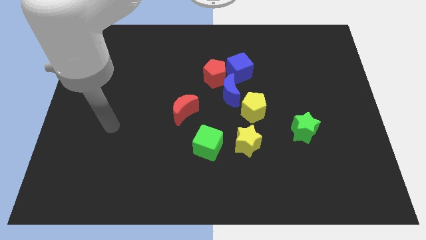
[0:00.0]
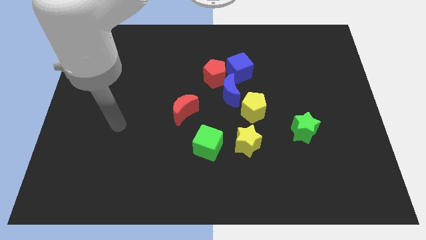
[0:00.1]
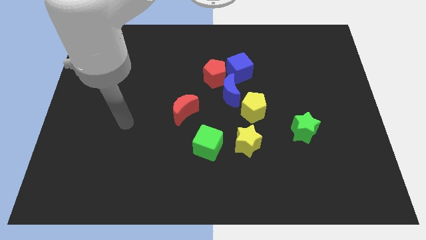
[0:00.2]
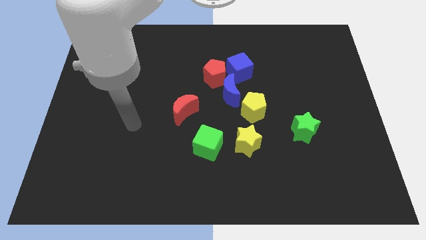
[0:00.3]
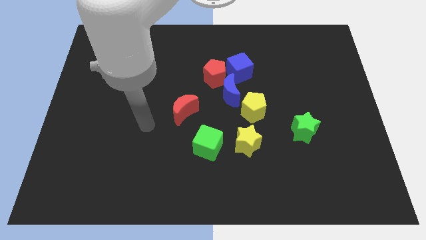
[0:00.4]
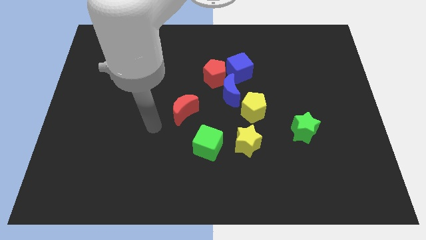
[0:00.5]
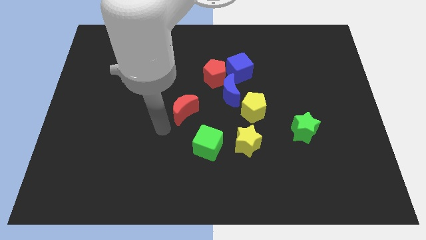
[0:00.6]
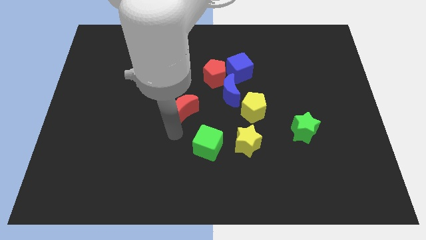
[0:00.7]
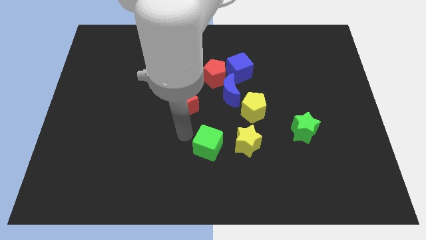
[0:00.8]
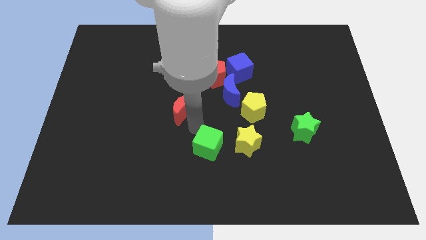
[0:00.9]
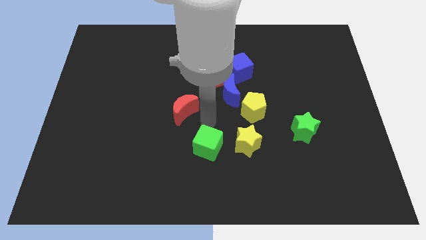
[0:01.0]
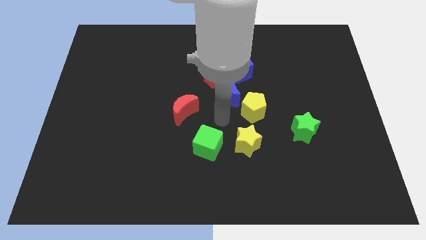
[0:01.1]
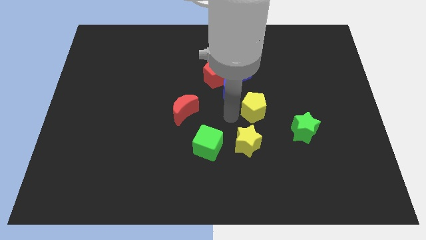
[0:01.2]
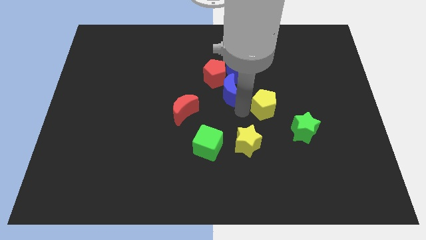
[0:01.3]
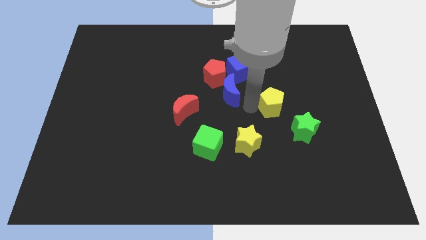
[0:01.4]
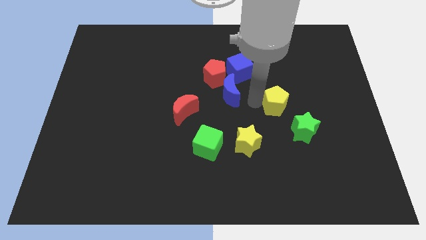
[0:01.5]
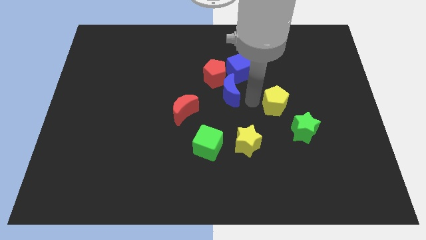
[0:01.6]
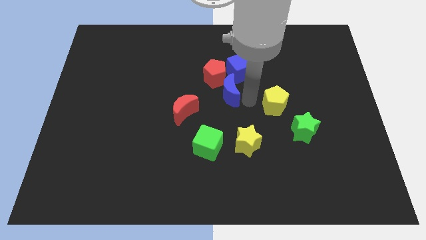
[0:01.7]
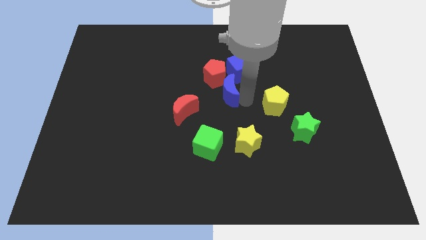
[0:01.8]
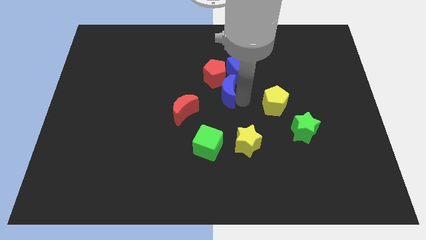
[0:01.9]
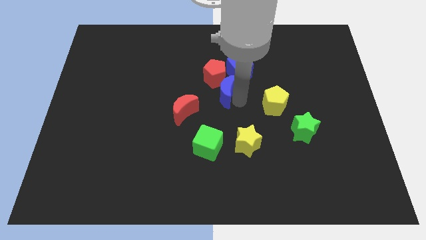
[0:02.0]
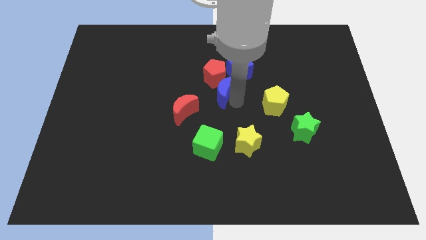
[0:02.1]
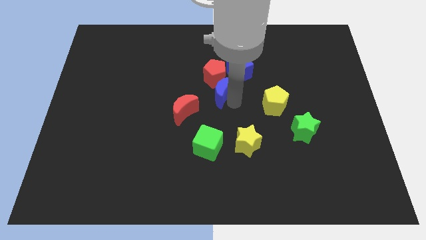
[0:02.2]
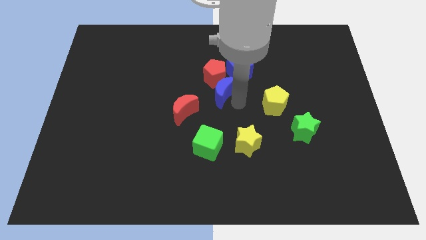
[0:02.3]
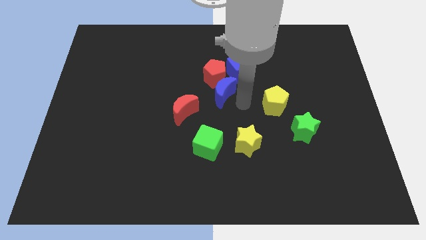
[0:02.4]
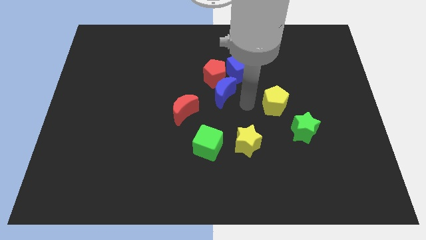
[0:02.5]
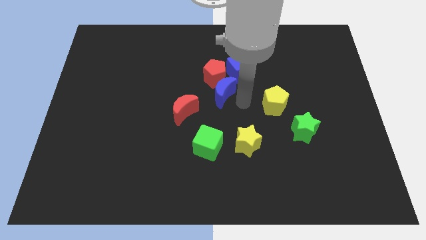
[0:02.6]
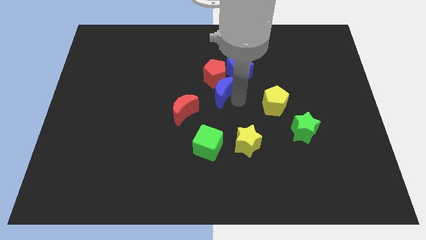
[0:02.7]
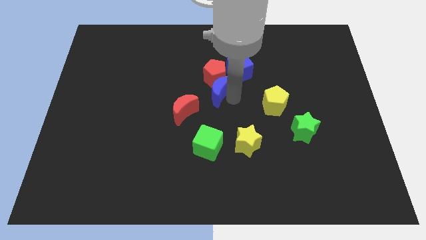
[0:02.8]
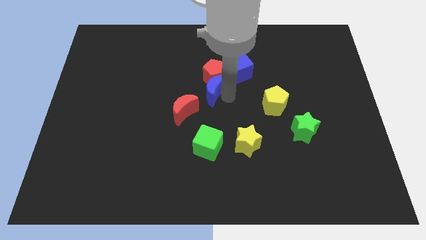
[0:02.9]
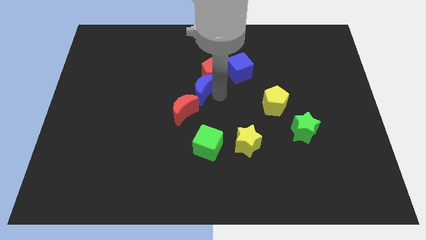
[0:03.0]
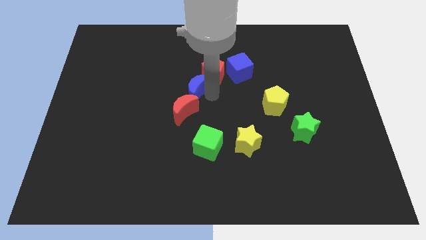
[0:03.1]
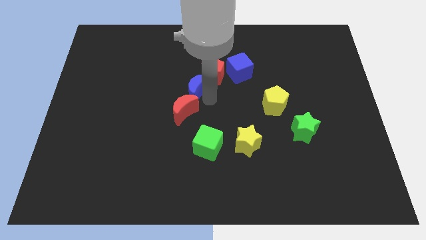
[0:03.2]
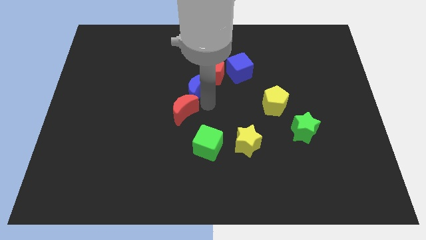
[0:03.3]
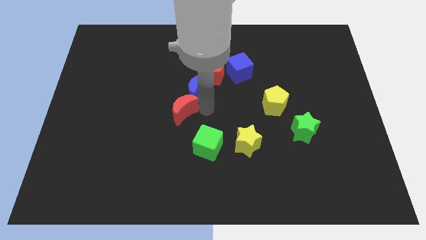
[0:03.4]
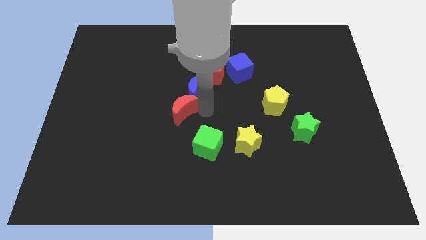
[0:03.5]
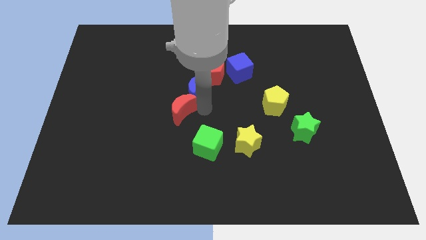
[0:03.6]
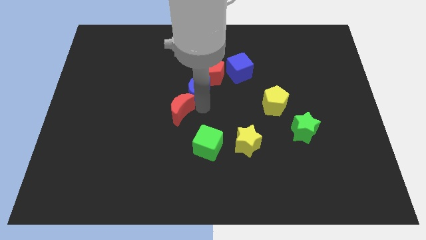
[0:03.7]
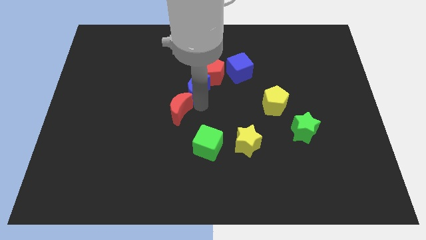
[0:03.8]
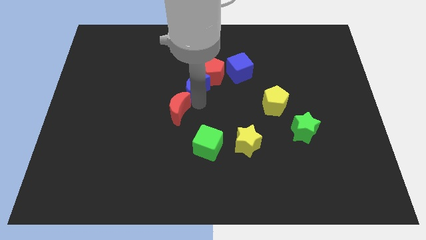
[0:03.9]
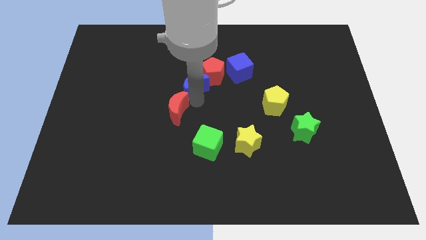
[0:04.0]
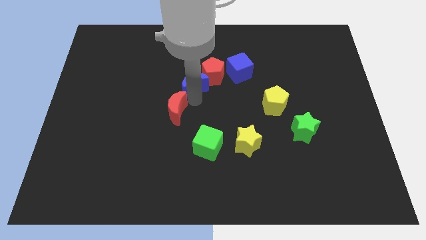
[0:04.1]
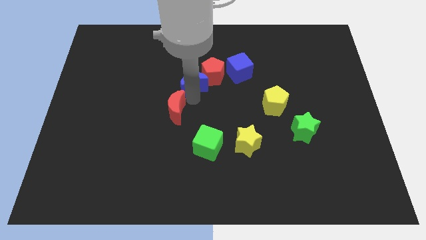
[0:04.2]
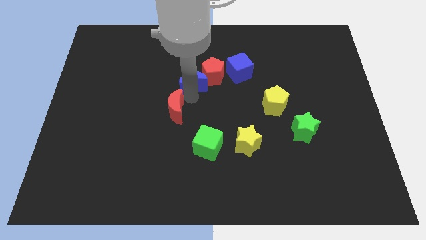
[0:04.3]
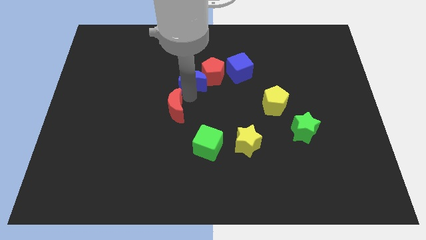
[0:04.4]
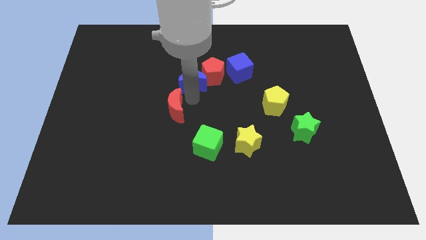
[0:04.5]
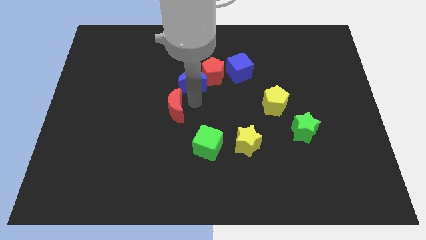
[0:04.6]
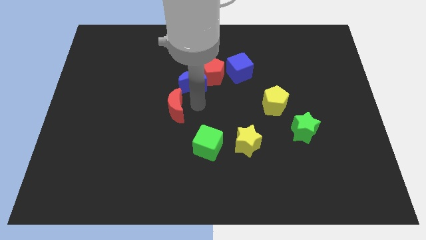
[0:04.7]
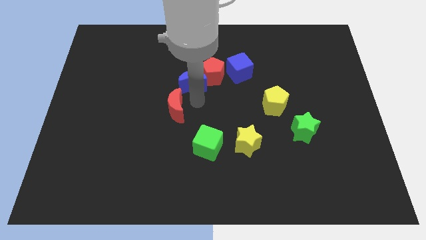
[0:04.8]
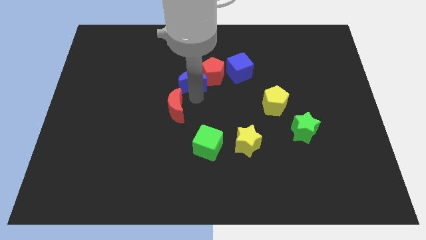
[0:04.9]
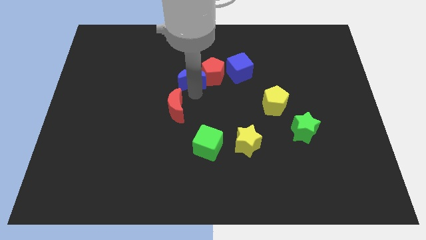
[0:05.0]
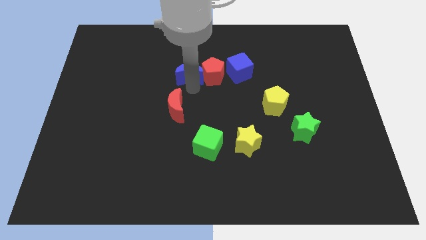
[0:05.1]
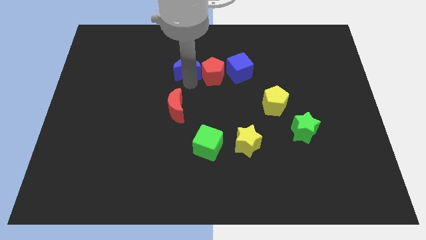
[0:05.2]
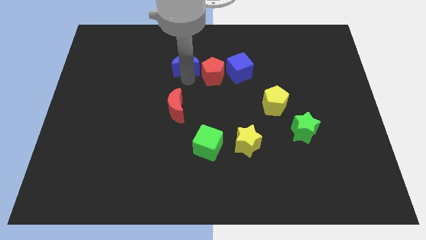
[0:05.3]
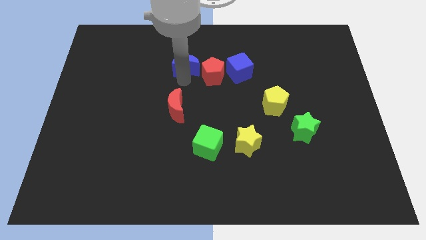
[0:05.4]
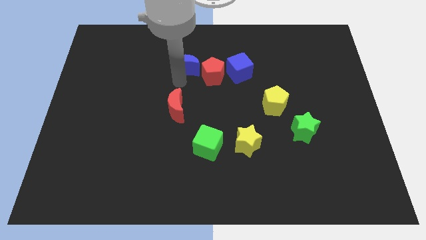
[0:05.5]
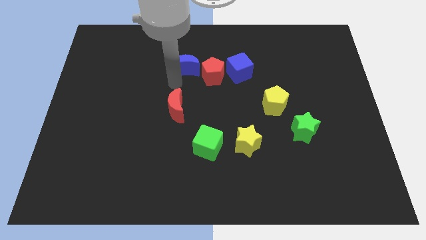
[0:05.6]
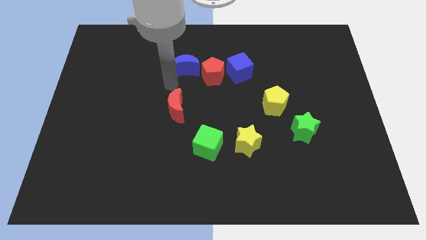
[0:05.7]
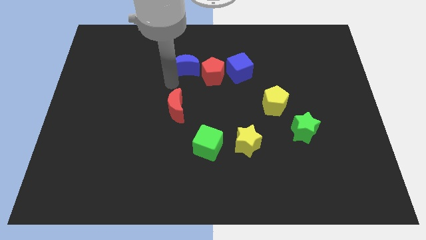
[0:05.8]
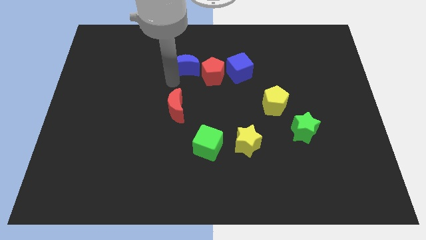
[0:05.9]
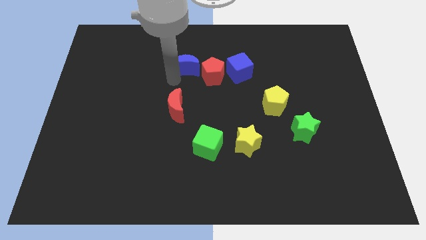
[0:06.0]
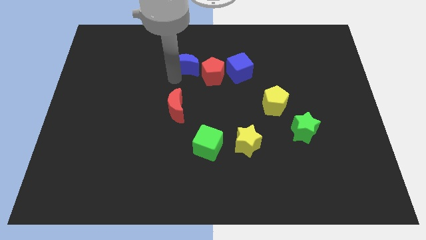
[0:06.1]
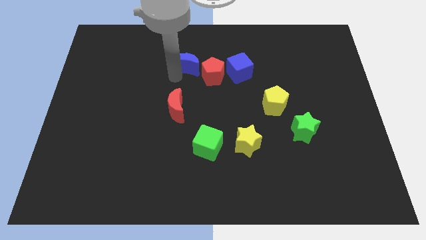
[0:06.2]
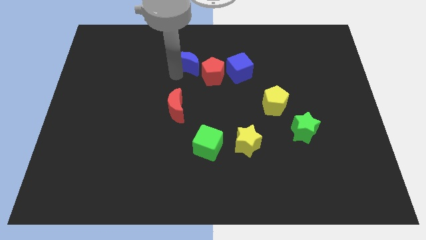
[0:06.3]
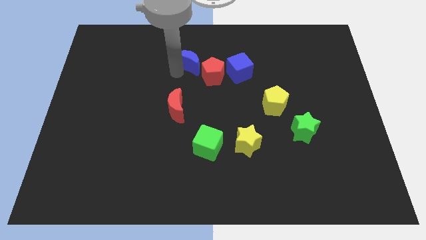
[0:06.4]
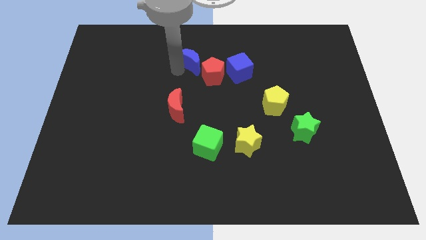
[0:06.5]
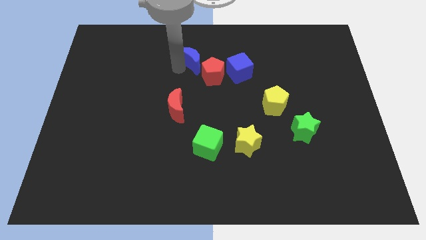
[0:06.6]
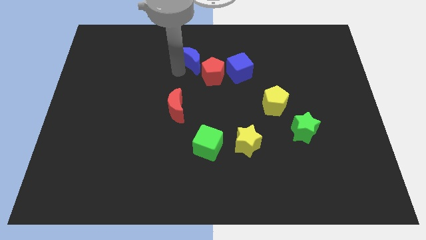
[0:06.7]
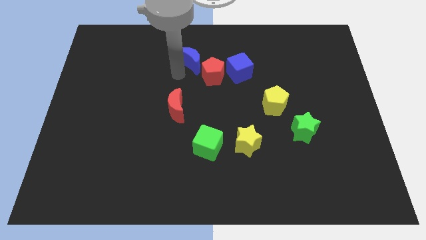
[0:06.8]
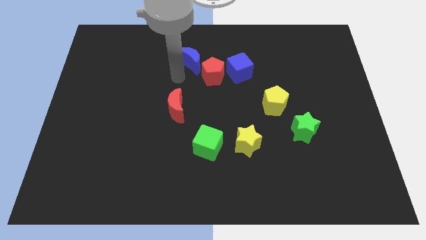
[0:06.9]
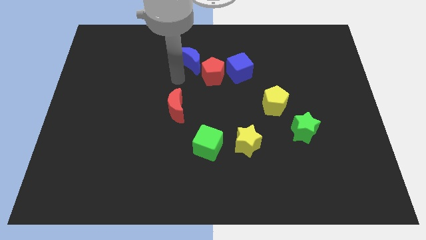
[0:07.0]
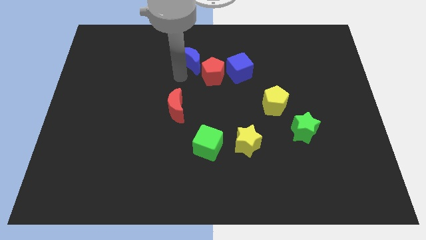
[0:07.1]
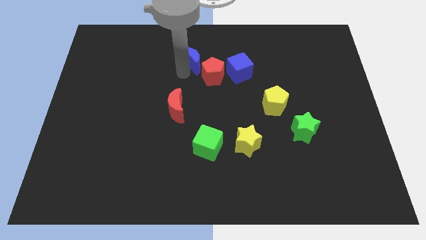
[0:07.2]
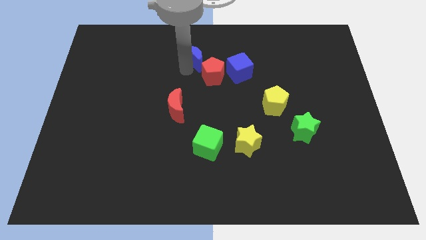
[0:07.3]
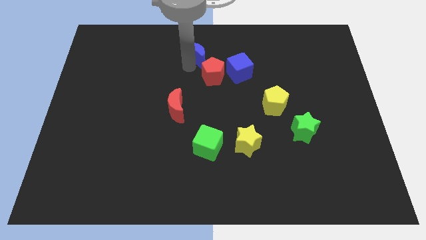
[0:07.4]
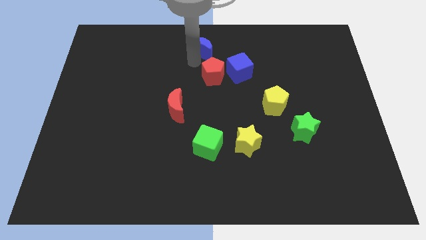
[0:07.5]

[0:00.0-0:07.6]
move the blue moon to the towards your base
